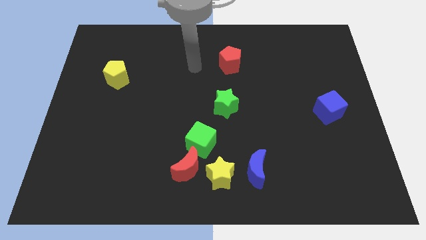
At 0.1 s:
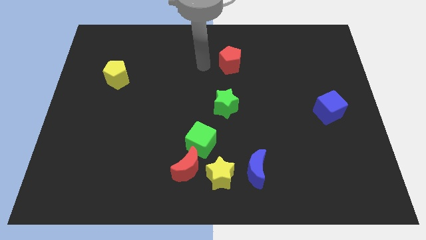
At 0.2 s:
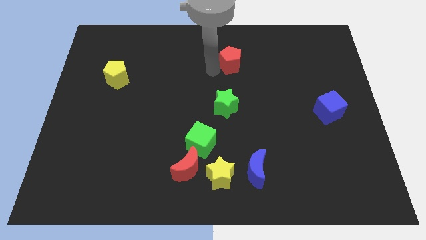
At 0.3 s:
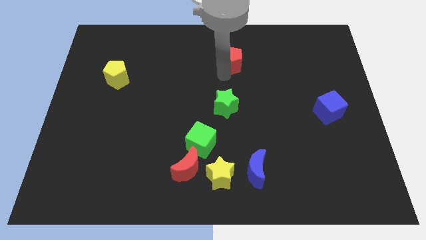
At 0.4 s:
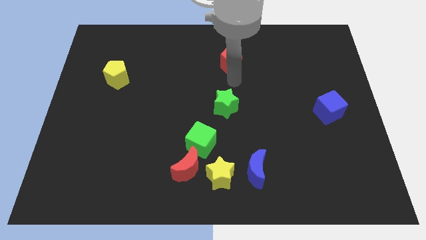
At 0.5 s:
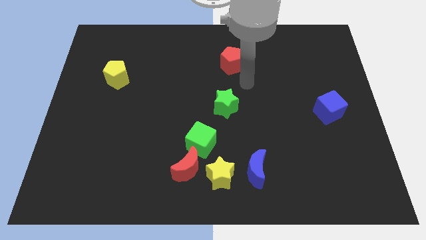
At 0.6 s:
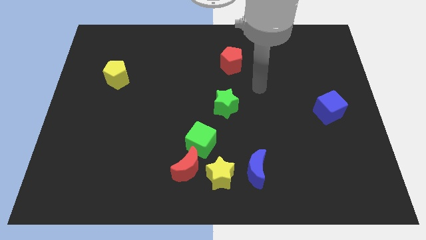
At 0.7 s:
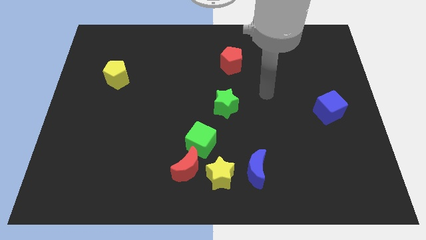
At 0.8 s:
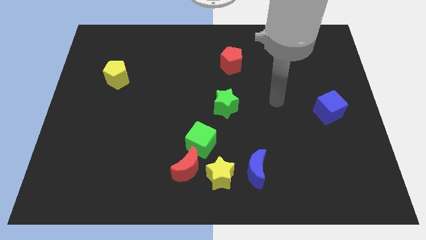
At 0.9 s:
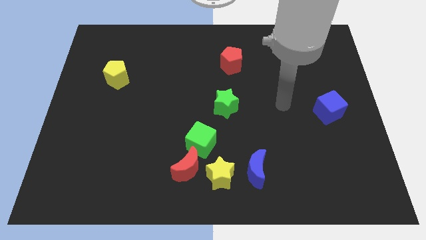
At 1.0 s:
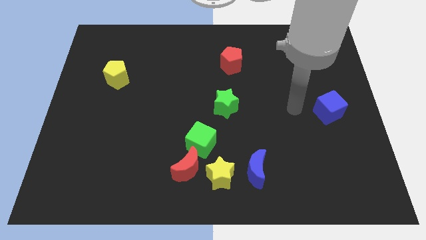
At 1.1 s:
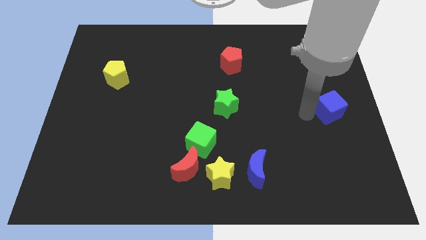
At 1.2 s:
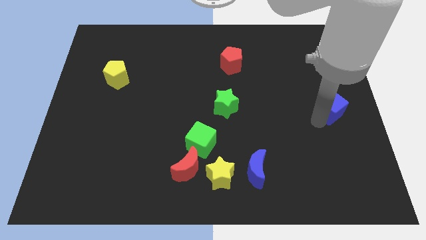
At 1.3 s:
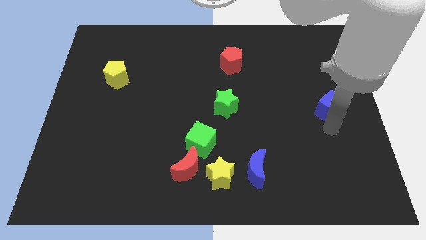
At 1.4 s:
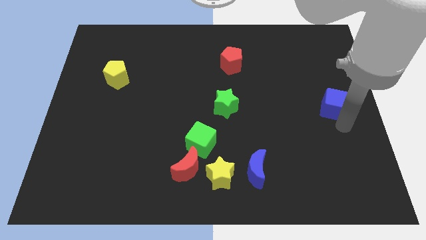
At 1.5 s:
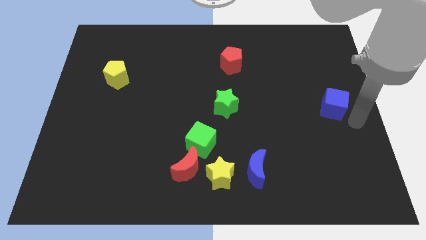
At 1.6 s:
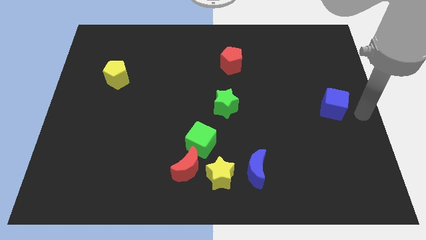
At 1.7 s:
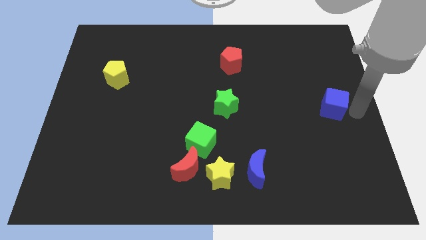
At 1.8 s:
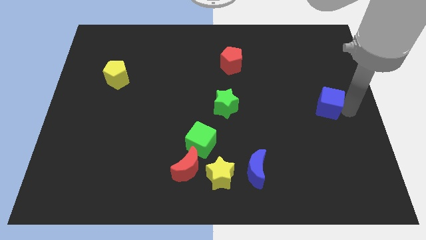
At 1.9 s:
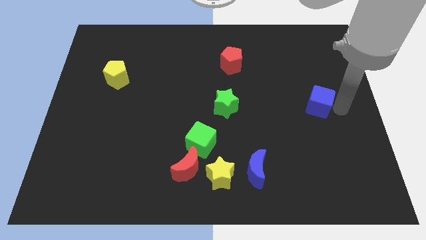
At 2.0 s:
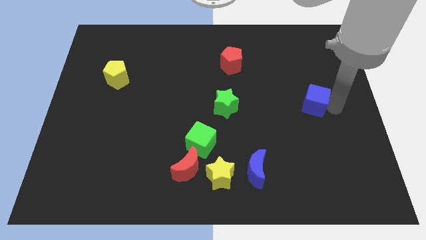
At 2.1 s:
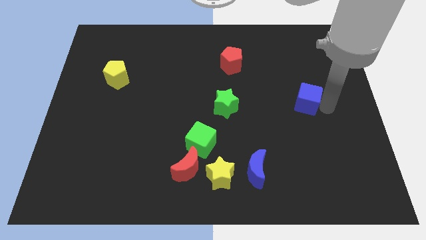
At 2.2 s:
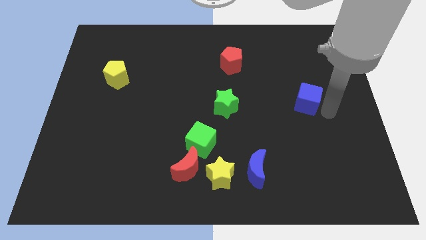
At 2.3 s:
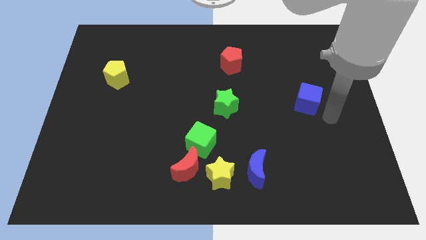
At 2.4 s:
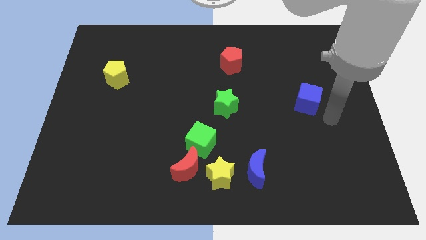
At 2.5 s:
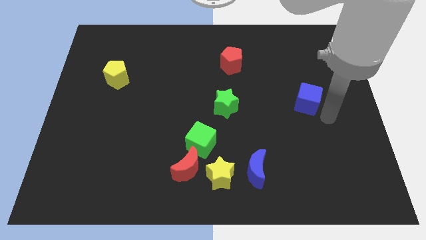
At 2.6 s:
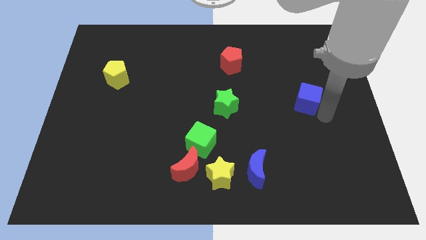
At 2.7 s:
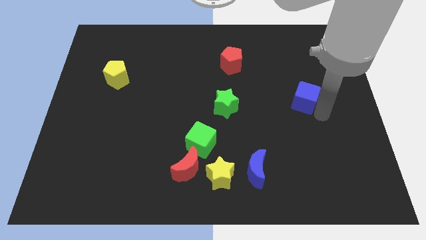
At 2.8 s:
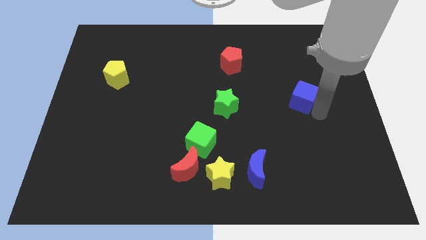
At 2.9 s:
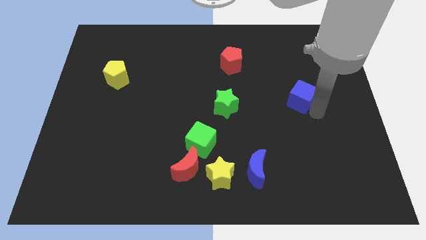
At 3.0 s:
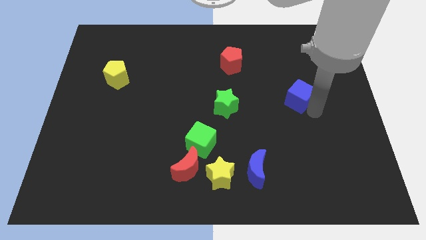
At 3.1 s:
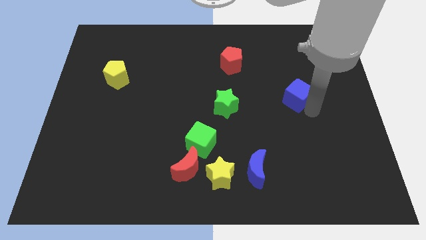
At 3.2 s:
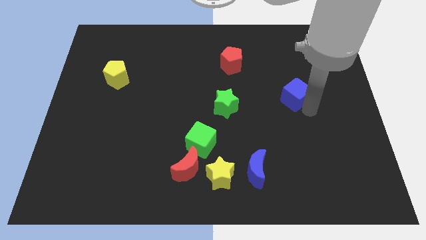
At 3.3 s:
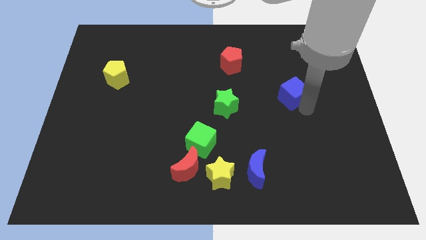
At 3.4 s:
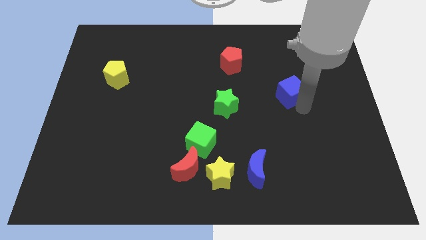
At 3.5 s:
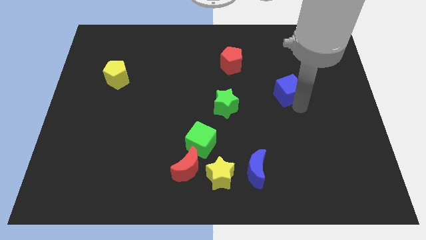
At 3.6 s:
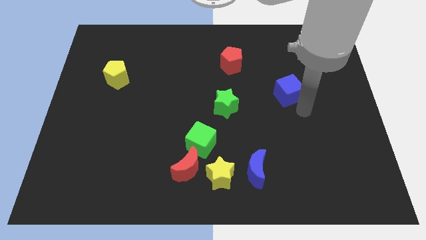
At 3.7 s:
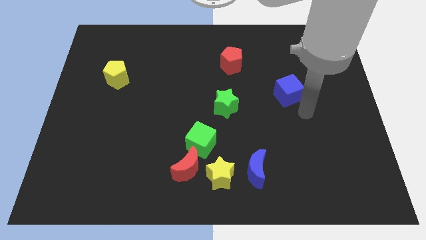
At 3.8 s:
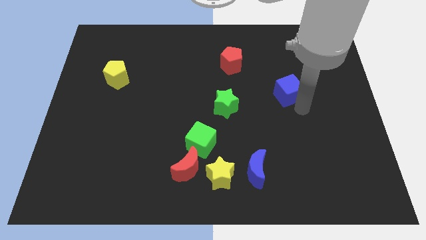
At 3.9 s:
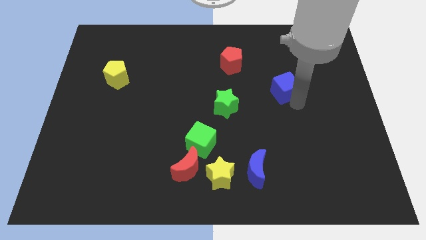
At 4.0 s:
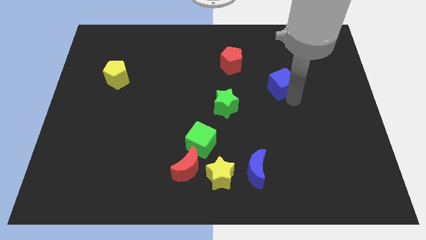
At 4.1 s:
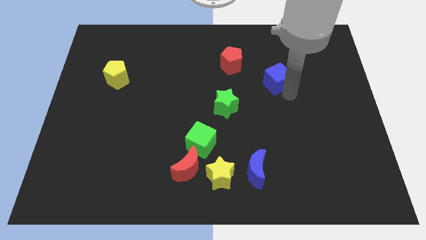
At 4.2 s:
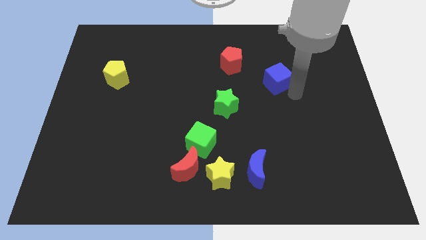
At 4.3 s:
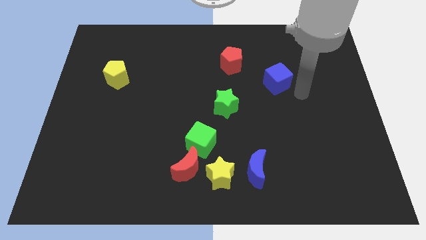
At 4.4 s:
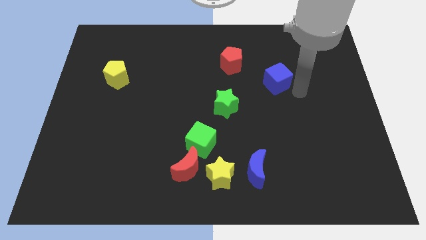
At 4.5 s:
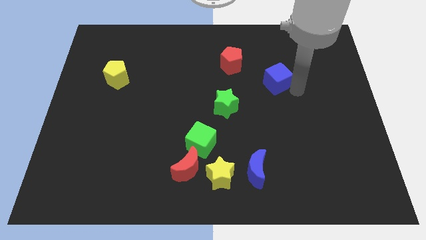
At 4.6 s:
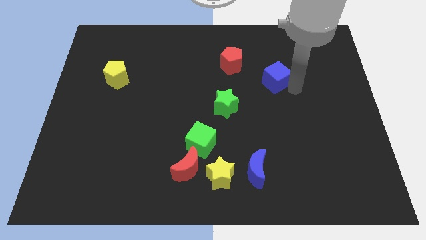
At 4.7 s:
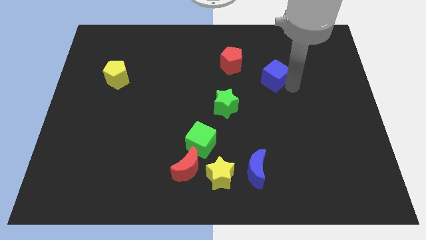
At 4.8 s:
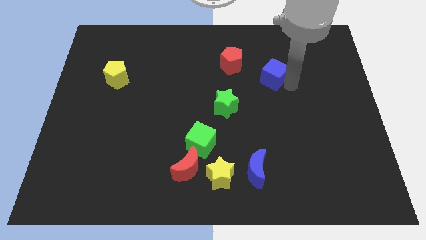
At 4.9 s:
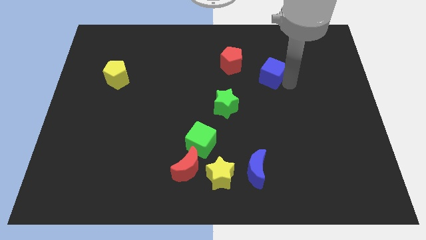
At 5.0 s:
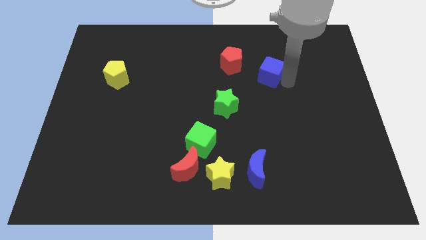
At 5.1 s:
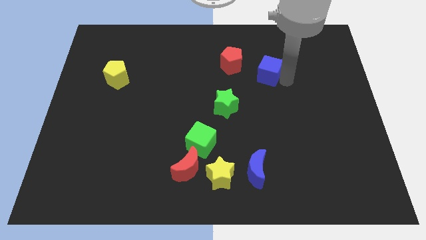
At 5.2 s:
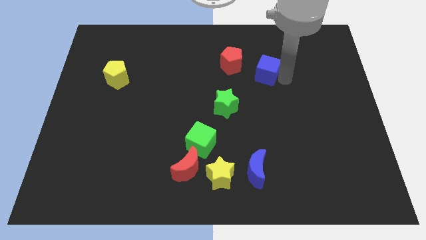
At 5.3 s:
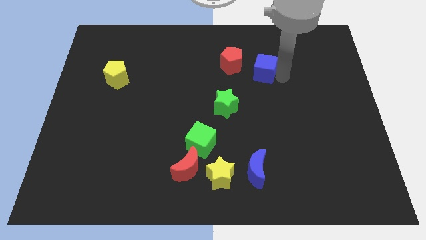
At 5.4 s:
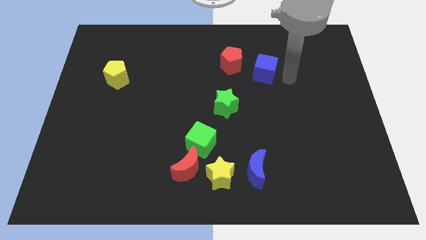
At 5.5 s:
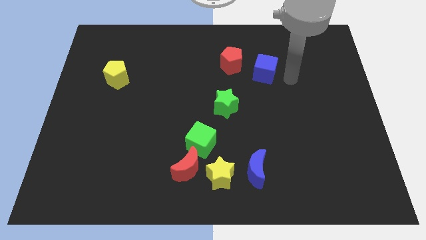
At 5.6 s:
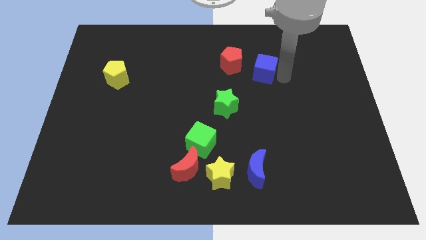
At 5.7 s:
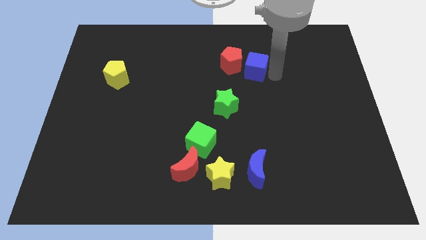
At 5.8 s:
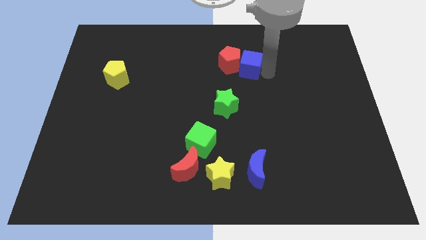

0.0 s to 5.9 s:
slide the blue cube close to the red pentagon

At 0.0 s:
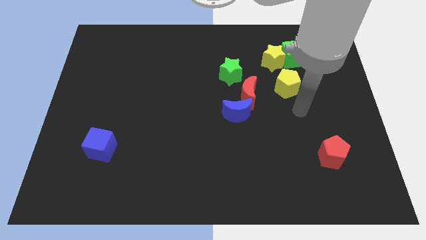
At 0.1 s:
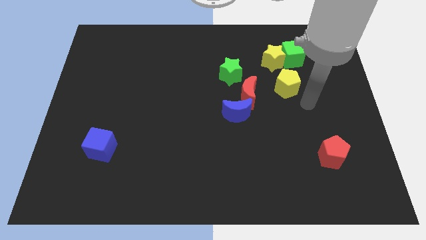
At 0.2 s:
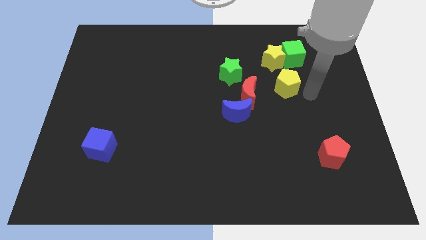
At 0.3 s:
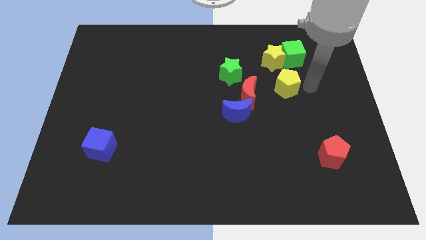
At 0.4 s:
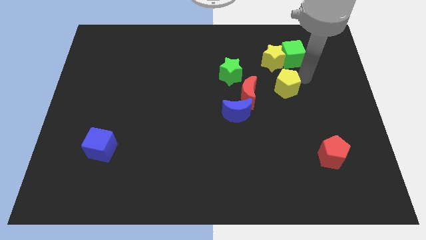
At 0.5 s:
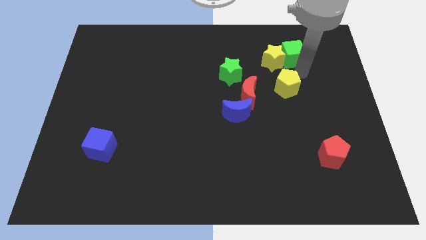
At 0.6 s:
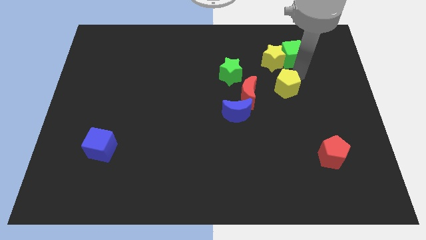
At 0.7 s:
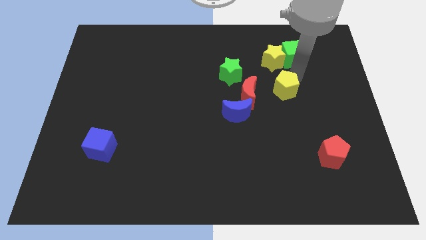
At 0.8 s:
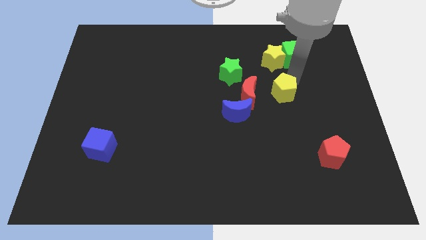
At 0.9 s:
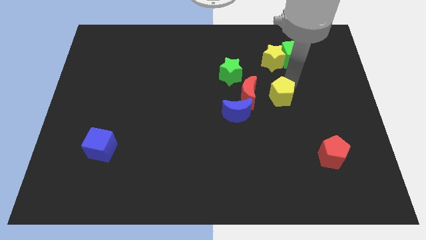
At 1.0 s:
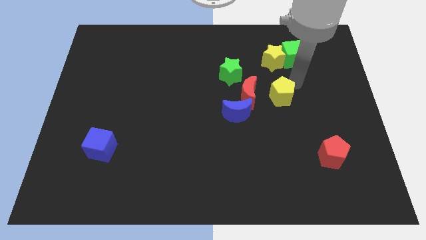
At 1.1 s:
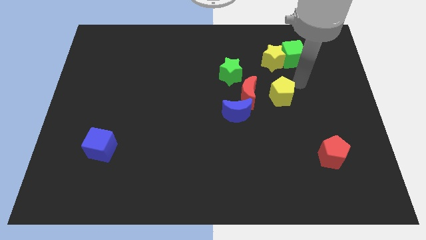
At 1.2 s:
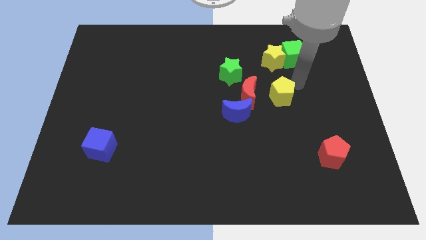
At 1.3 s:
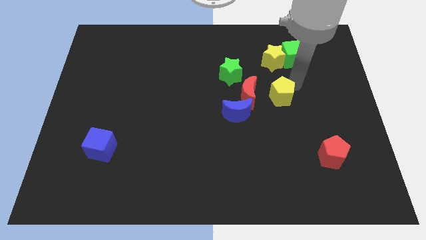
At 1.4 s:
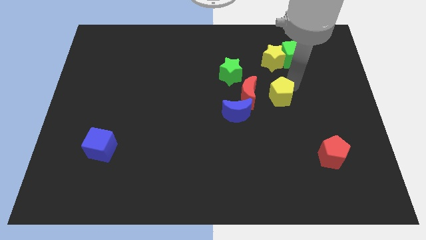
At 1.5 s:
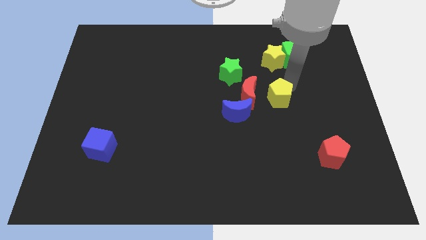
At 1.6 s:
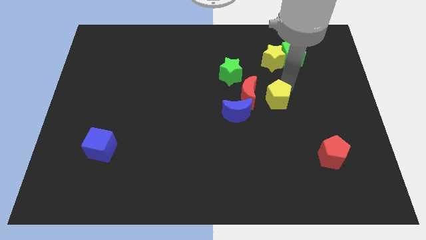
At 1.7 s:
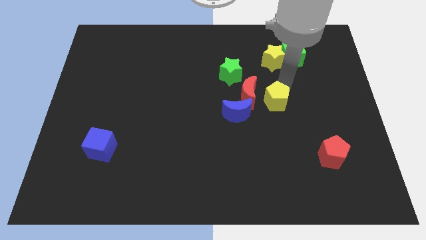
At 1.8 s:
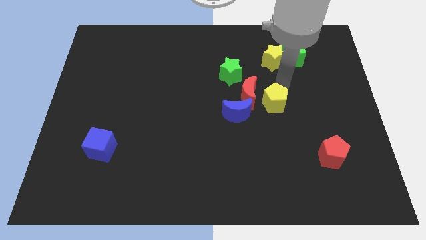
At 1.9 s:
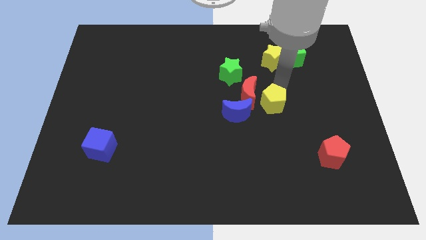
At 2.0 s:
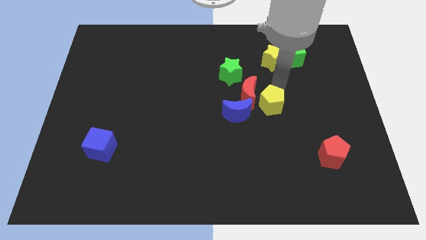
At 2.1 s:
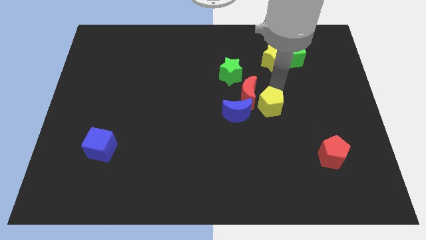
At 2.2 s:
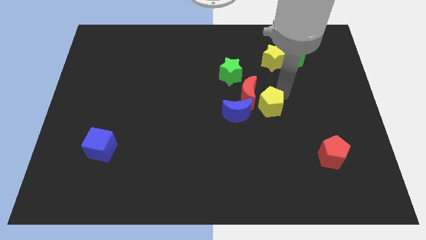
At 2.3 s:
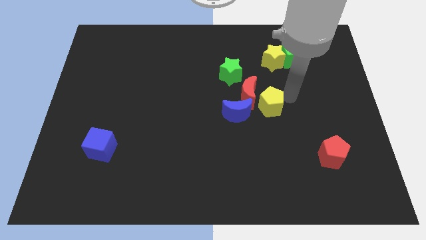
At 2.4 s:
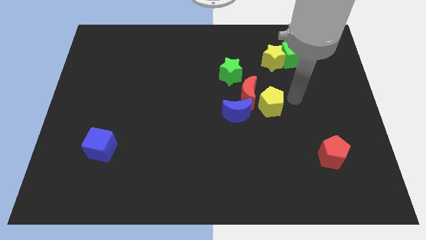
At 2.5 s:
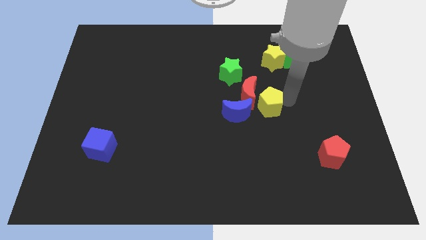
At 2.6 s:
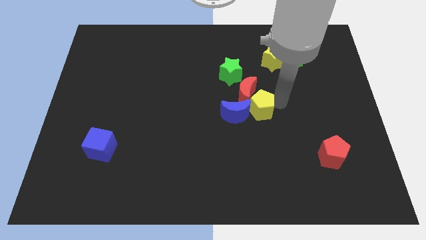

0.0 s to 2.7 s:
slide the yellow pentagon next to the blue moon
